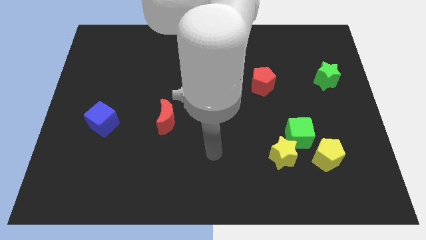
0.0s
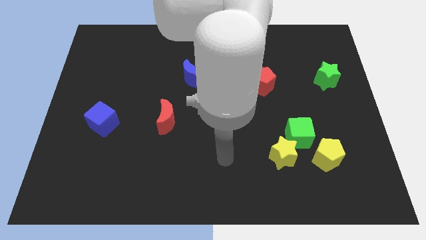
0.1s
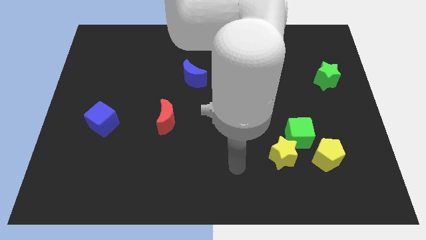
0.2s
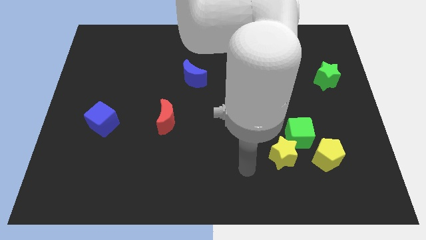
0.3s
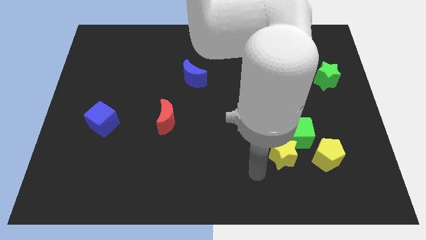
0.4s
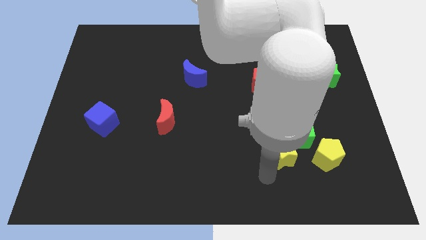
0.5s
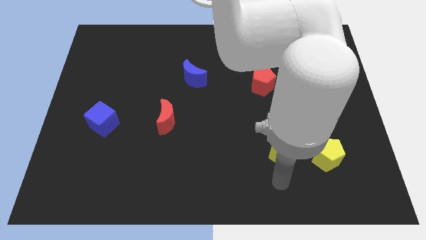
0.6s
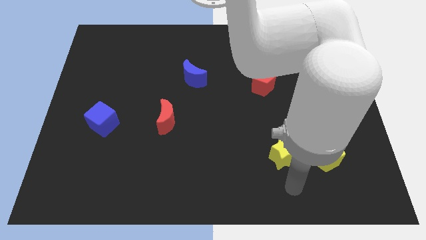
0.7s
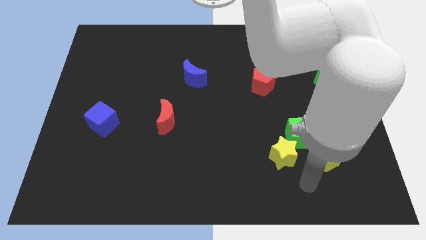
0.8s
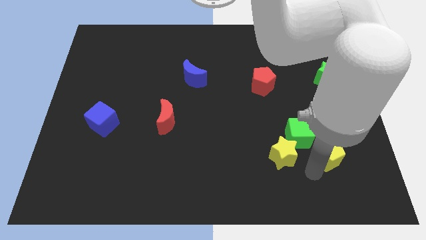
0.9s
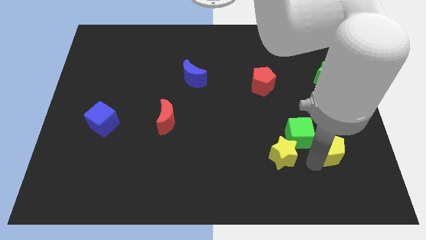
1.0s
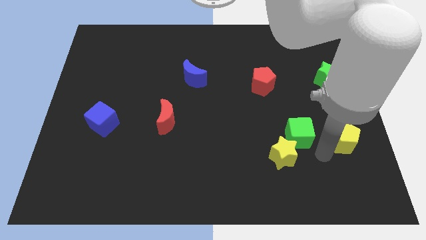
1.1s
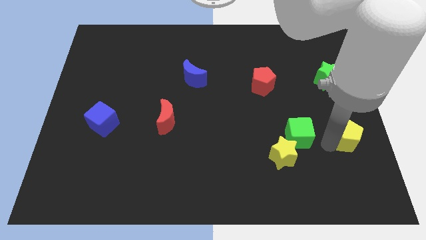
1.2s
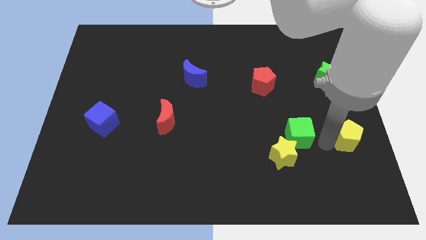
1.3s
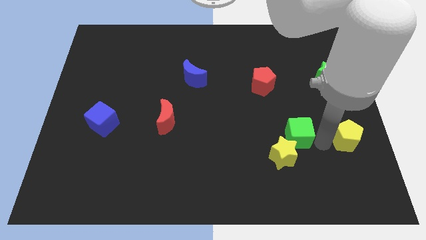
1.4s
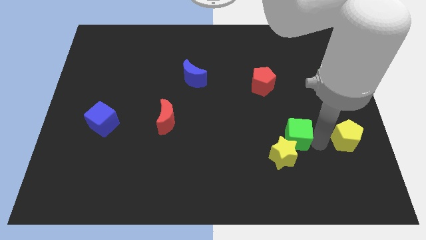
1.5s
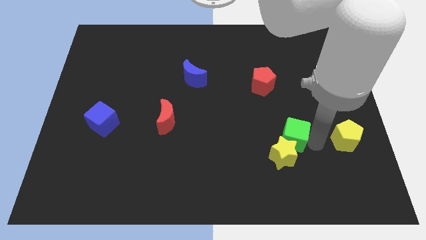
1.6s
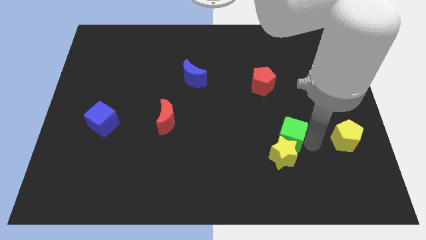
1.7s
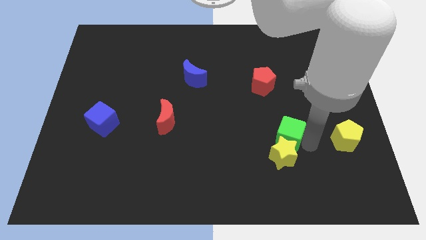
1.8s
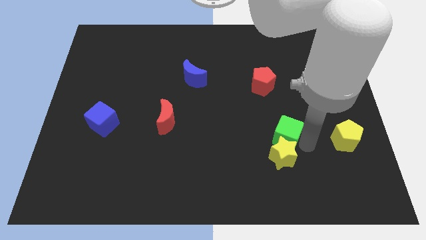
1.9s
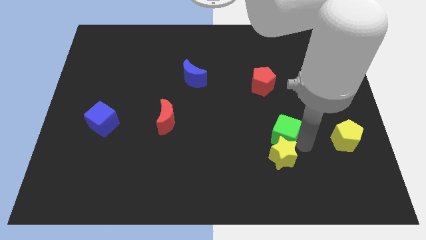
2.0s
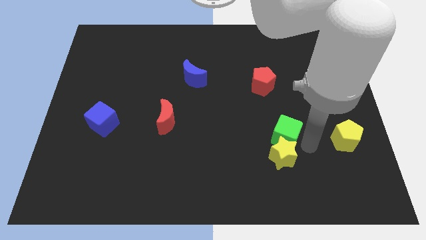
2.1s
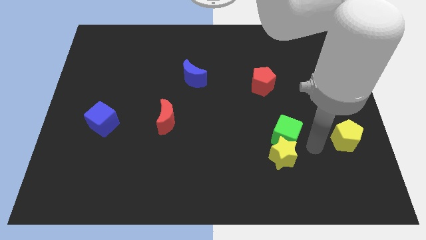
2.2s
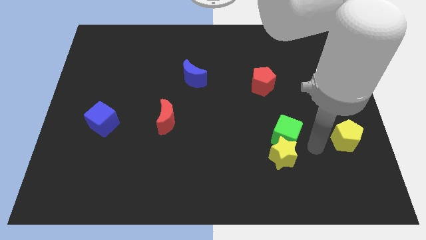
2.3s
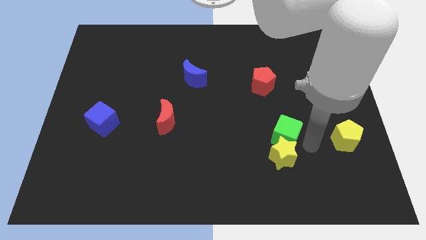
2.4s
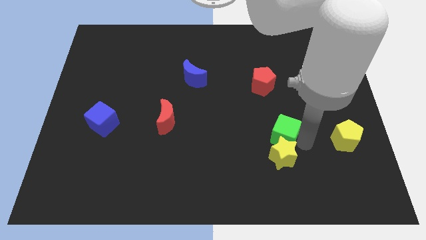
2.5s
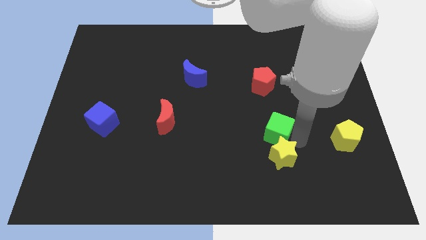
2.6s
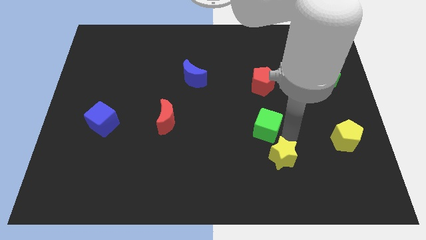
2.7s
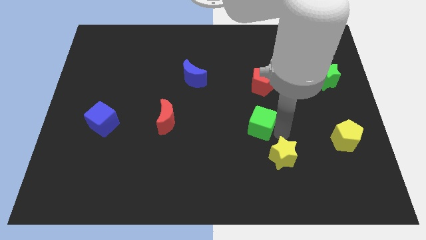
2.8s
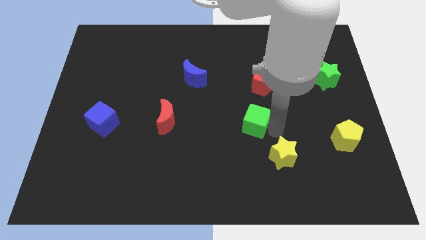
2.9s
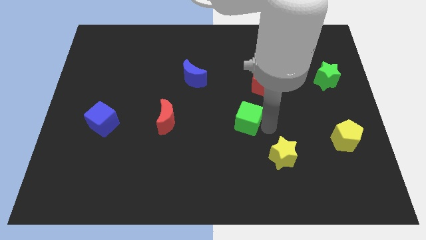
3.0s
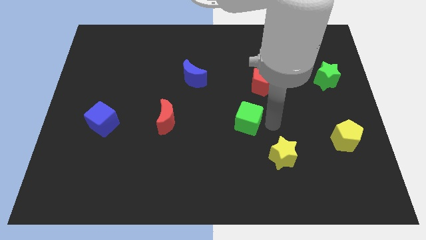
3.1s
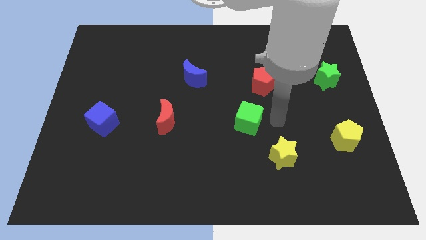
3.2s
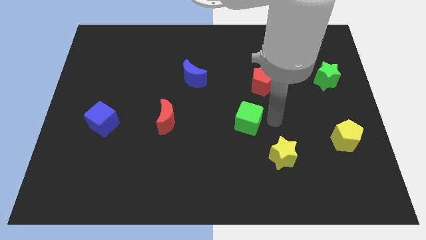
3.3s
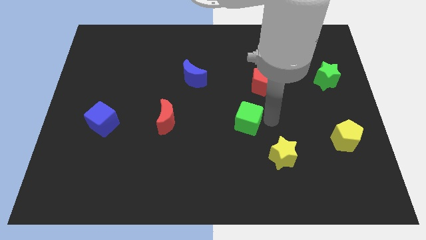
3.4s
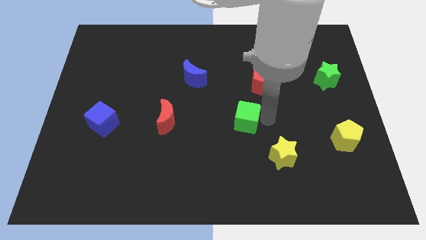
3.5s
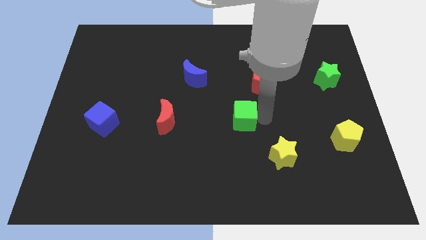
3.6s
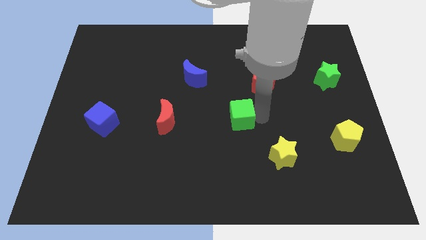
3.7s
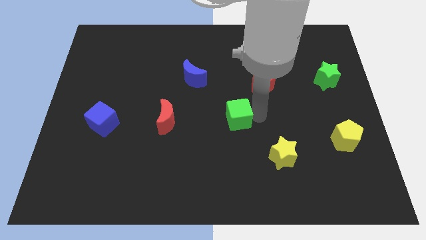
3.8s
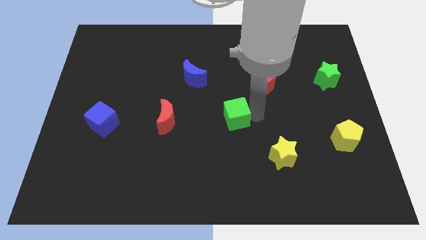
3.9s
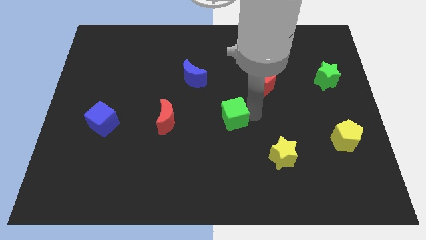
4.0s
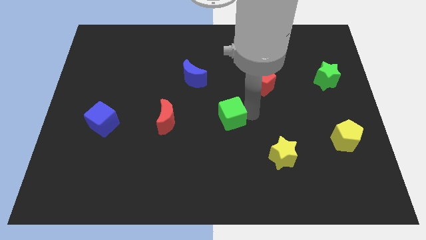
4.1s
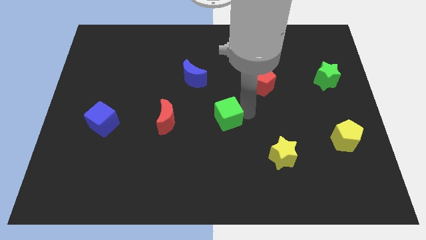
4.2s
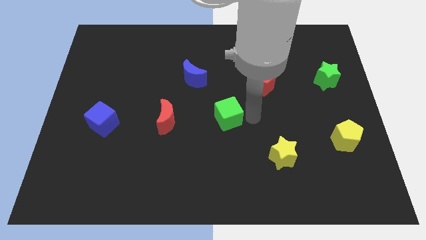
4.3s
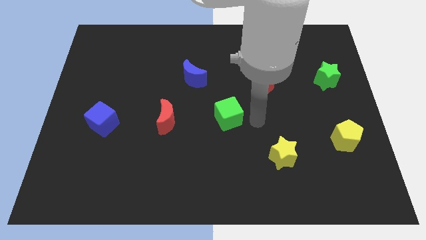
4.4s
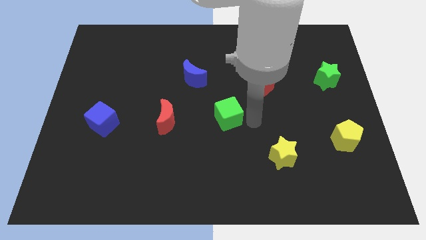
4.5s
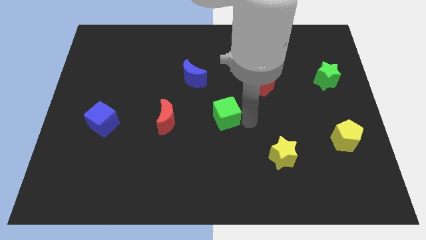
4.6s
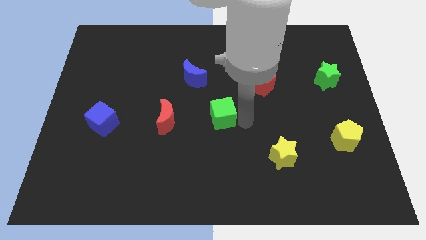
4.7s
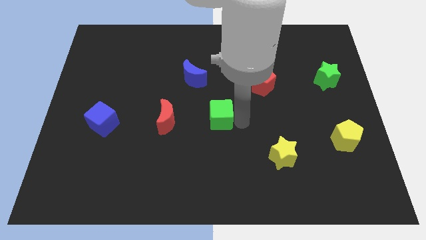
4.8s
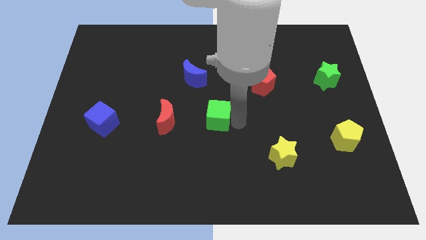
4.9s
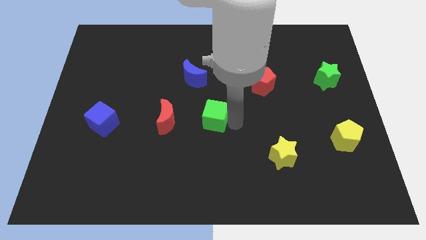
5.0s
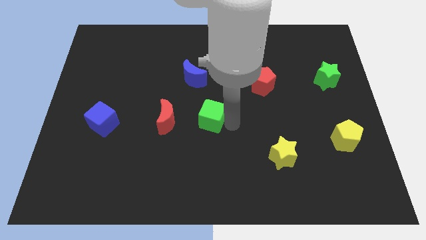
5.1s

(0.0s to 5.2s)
move the green cube below the blue moon

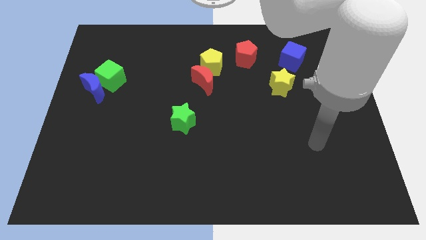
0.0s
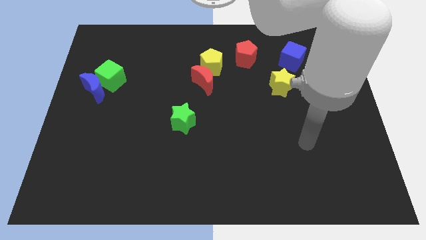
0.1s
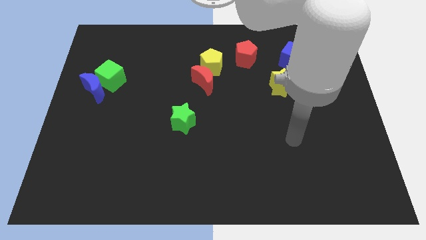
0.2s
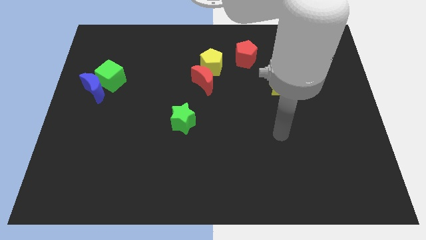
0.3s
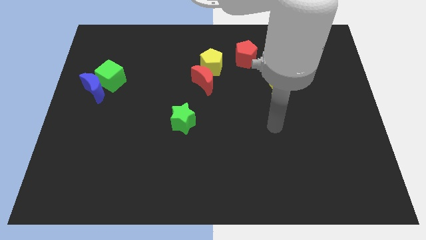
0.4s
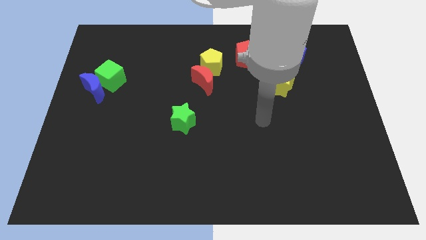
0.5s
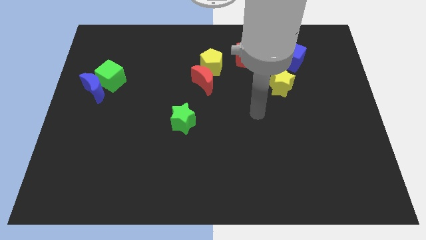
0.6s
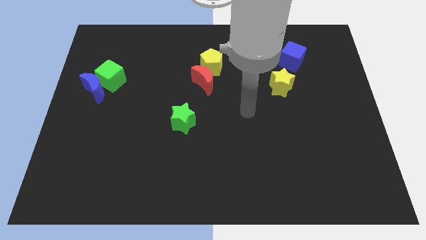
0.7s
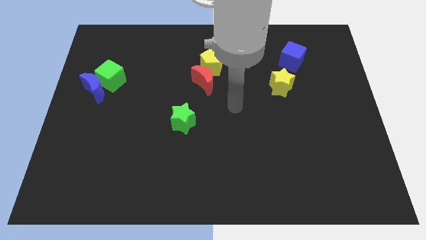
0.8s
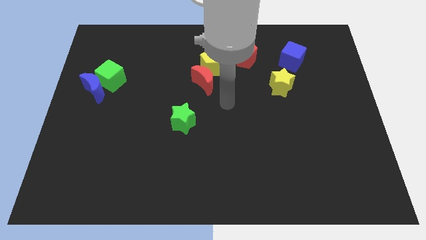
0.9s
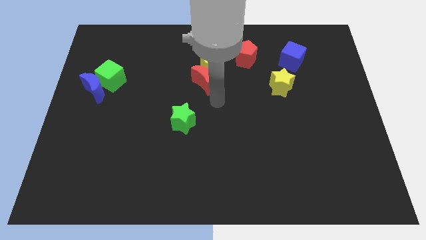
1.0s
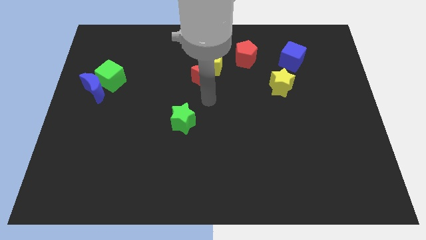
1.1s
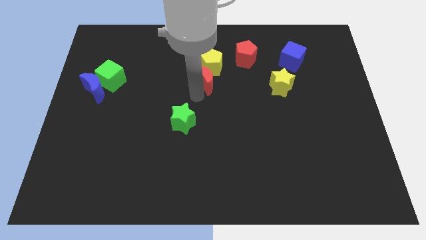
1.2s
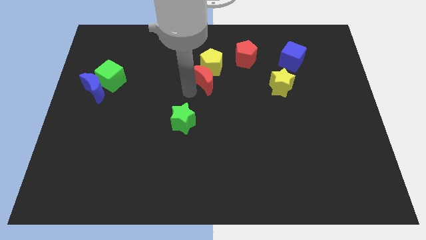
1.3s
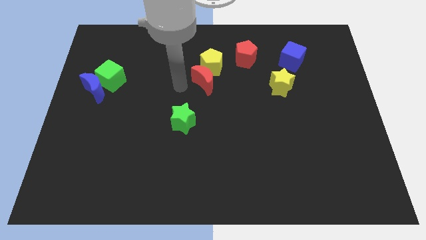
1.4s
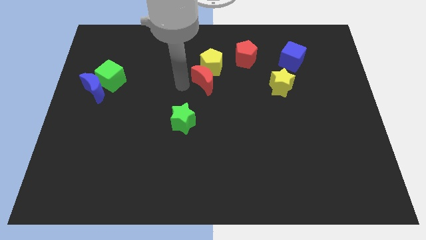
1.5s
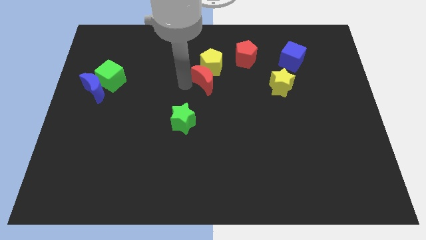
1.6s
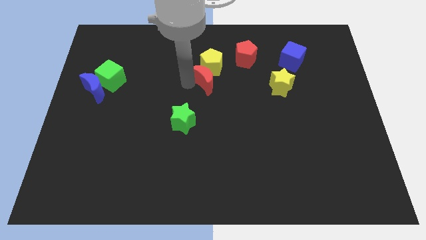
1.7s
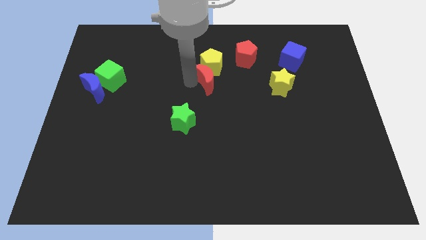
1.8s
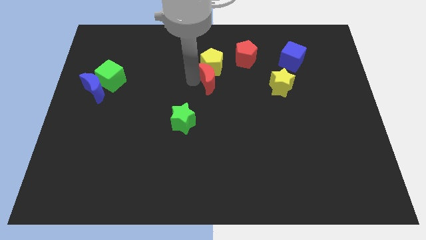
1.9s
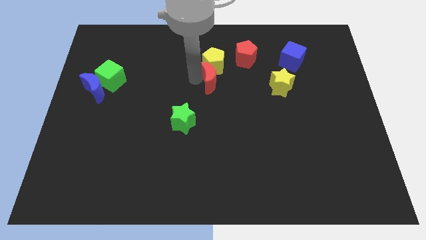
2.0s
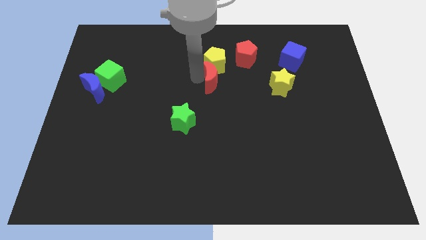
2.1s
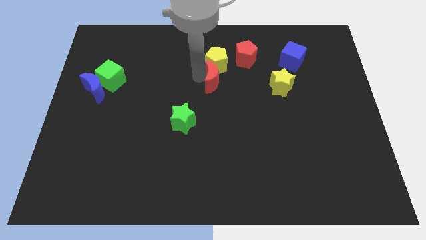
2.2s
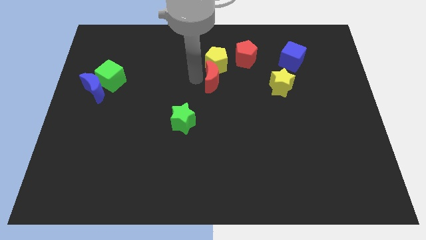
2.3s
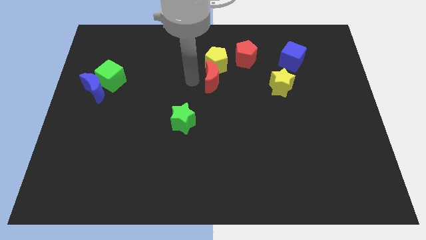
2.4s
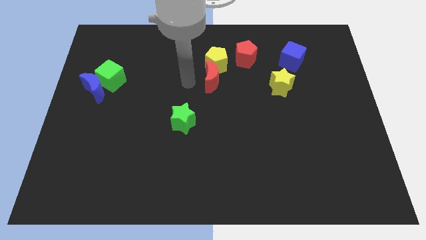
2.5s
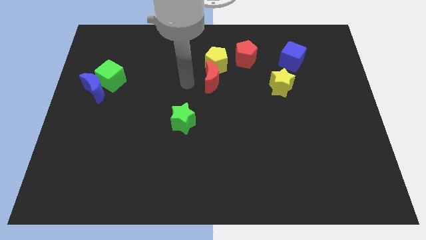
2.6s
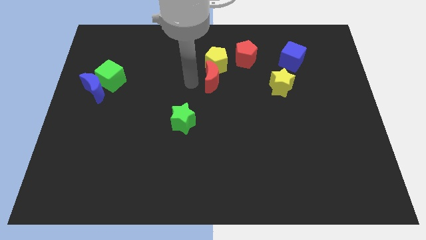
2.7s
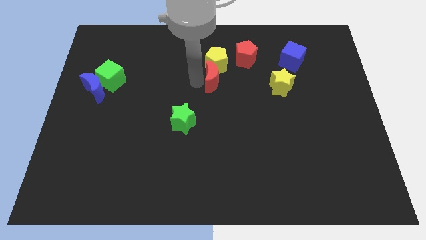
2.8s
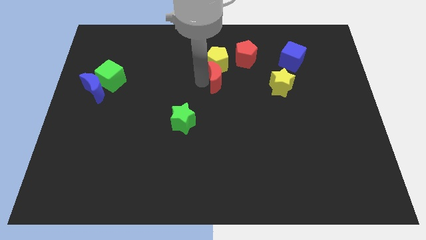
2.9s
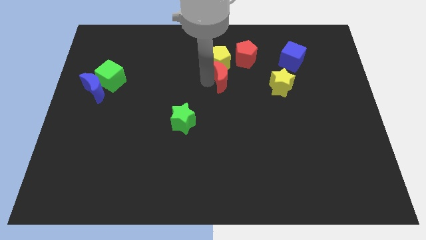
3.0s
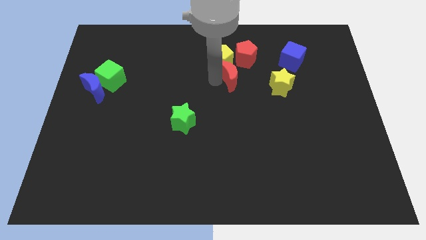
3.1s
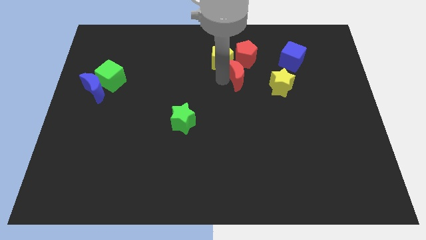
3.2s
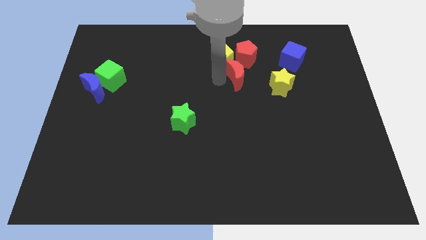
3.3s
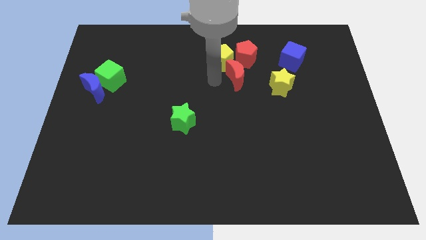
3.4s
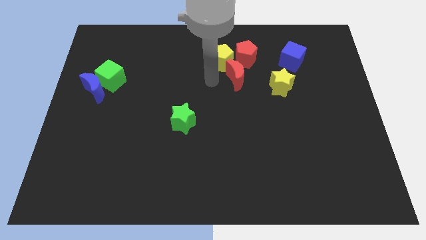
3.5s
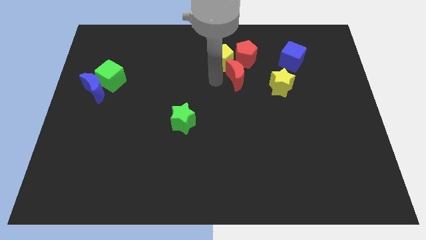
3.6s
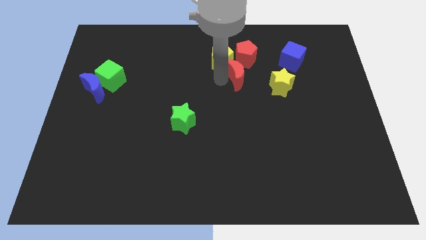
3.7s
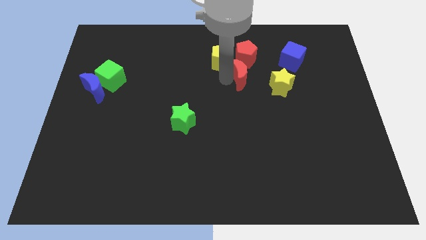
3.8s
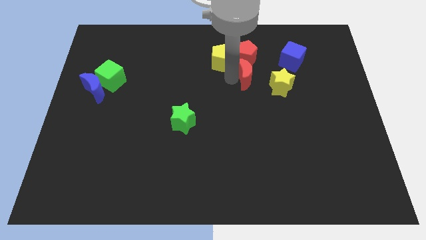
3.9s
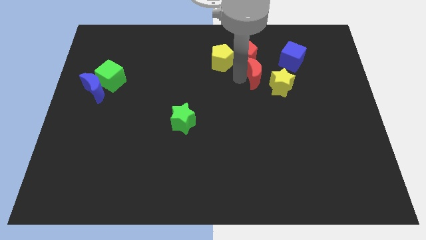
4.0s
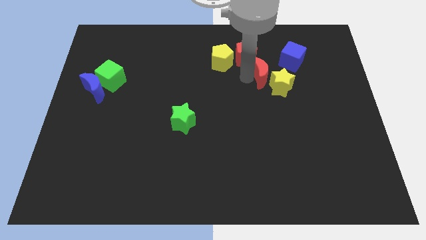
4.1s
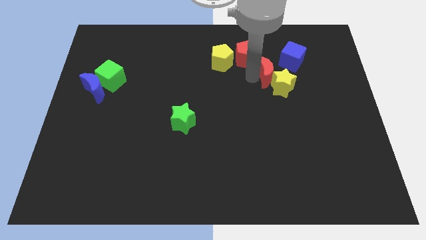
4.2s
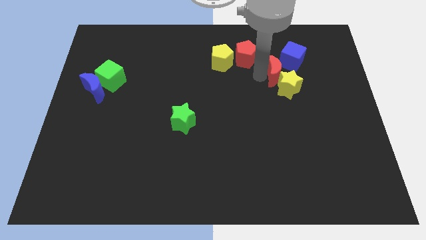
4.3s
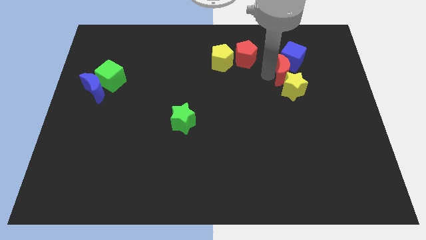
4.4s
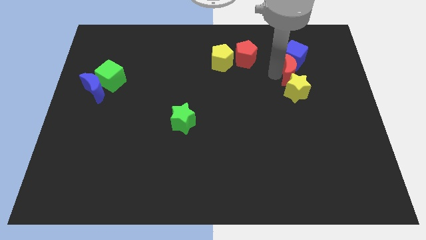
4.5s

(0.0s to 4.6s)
push the red moon to the top right of the yellow star
